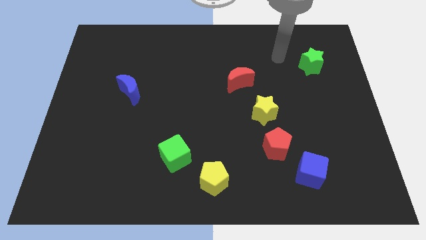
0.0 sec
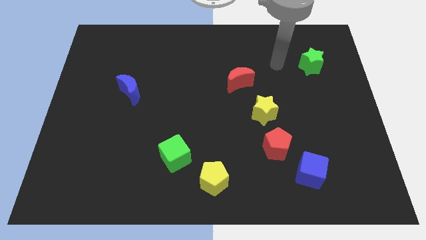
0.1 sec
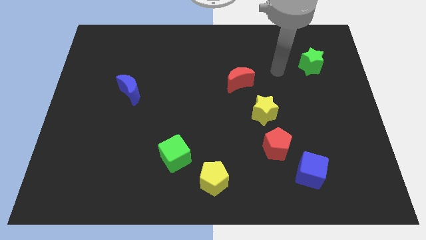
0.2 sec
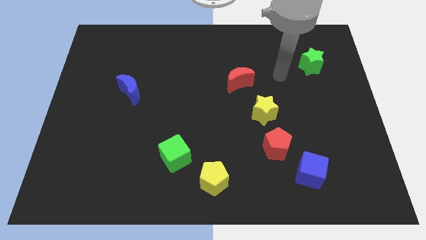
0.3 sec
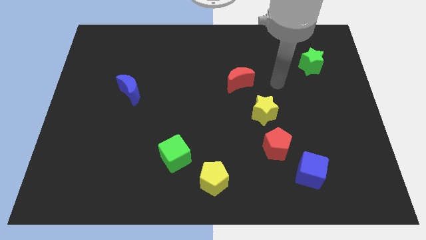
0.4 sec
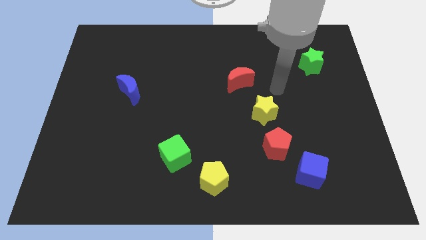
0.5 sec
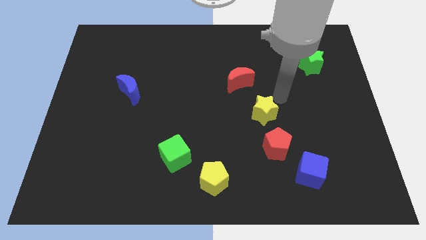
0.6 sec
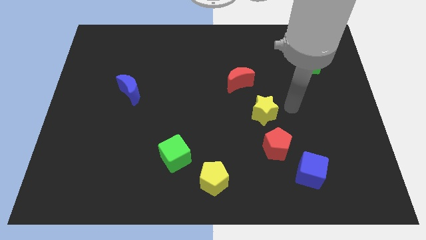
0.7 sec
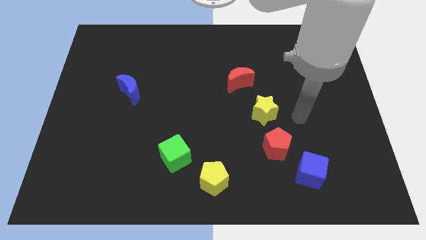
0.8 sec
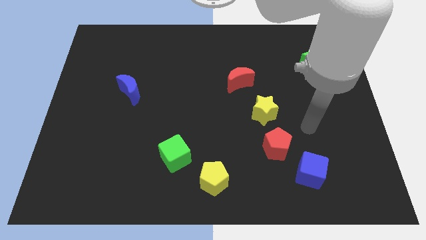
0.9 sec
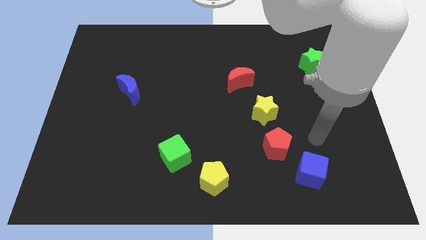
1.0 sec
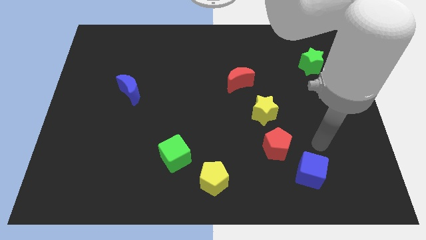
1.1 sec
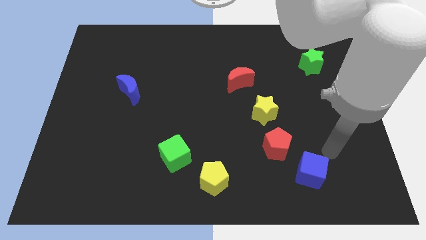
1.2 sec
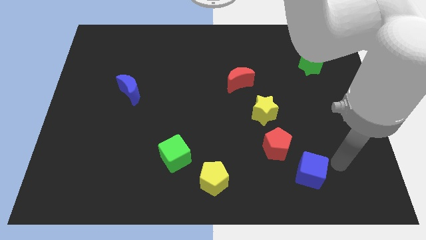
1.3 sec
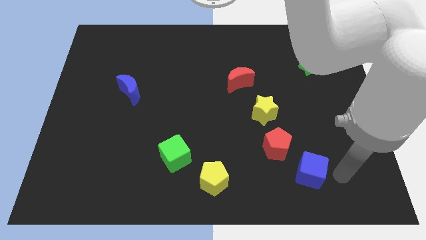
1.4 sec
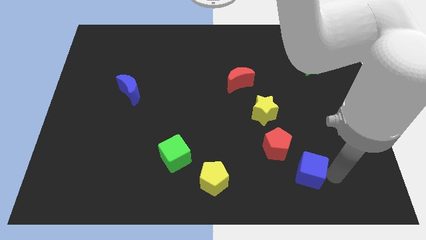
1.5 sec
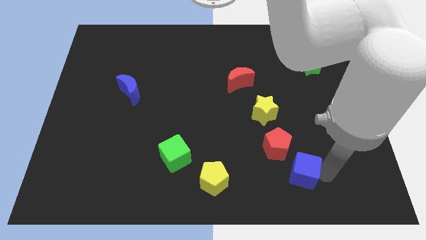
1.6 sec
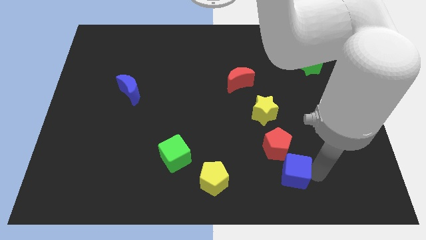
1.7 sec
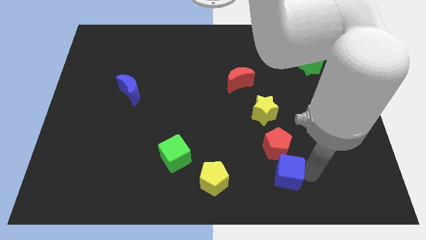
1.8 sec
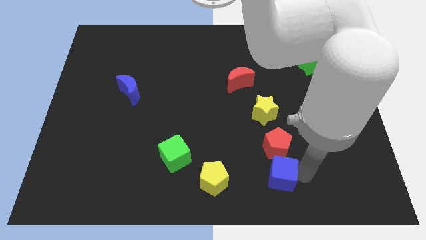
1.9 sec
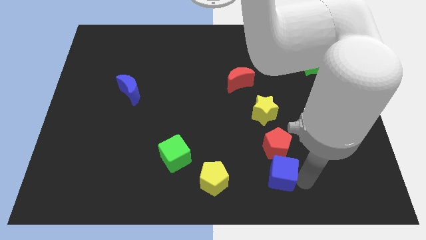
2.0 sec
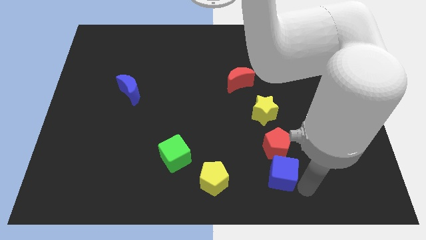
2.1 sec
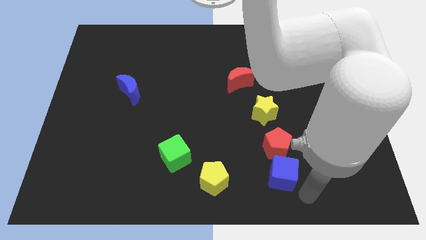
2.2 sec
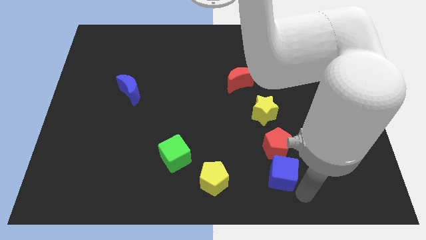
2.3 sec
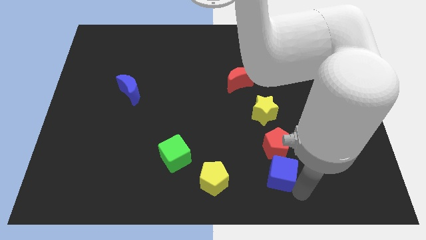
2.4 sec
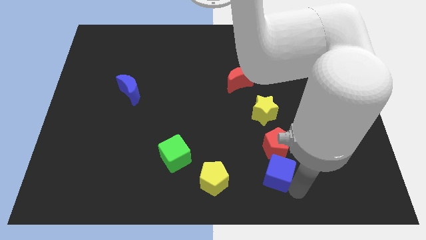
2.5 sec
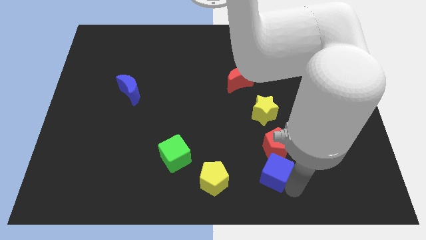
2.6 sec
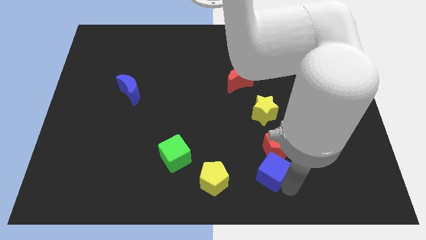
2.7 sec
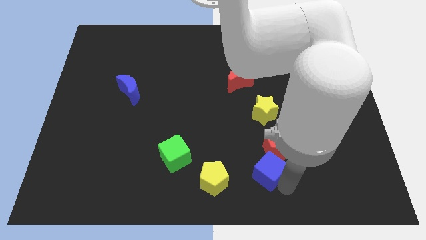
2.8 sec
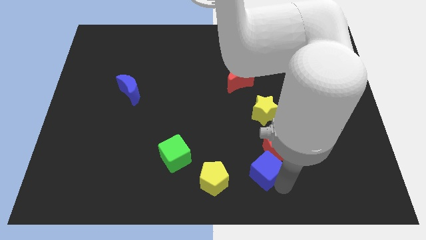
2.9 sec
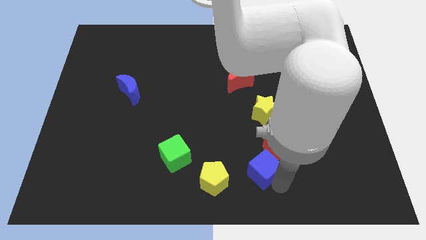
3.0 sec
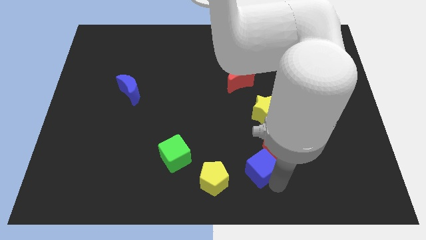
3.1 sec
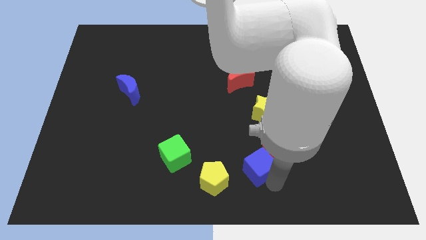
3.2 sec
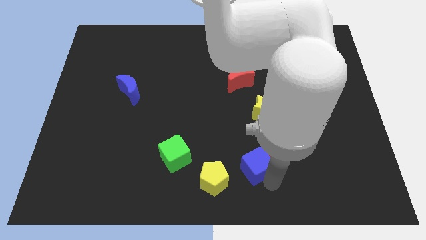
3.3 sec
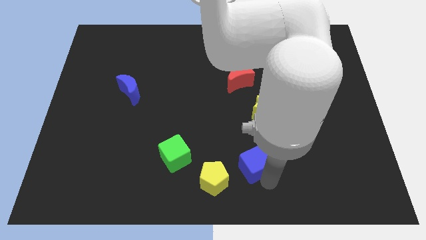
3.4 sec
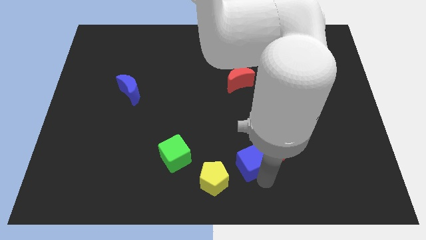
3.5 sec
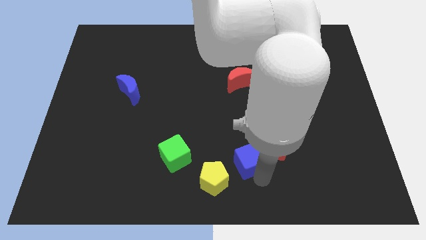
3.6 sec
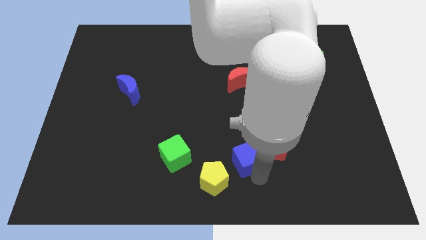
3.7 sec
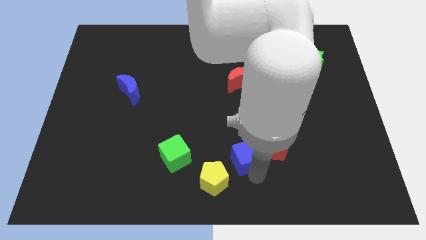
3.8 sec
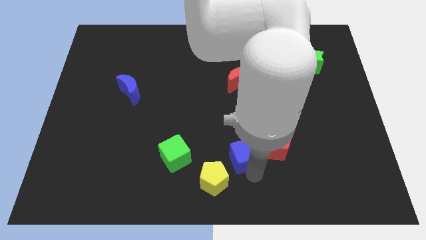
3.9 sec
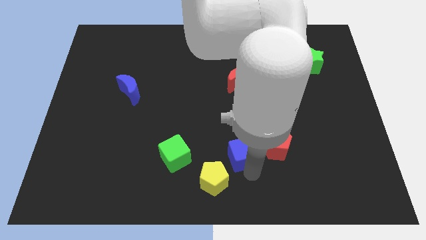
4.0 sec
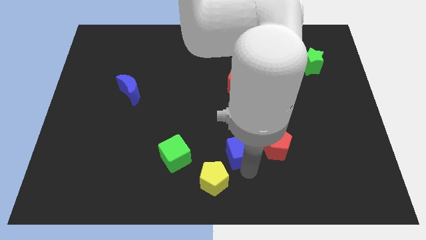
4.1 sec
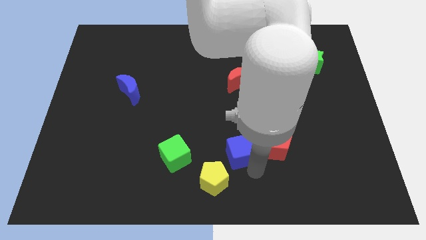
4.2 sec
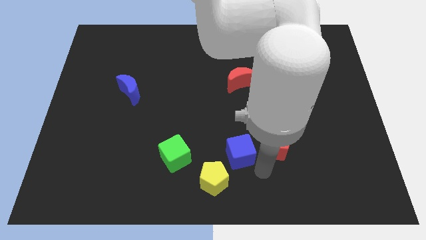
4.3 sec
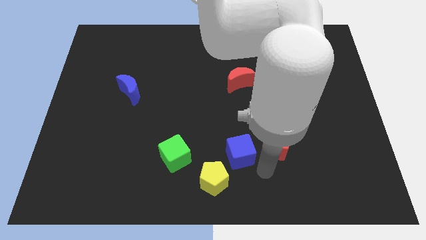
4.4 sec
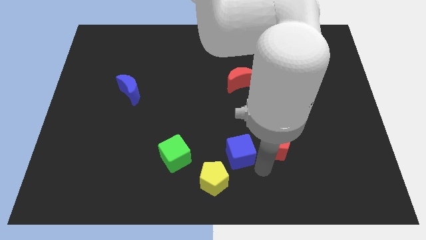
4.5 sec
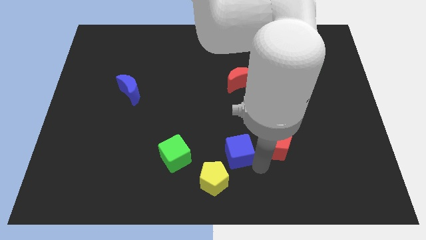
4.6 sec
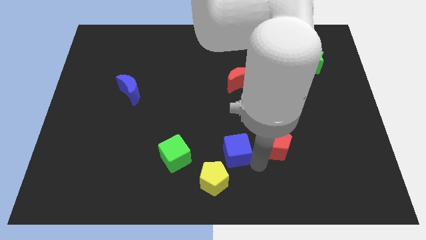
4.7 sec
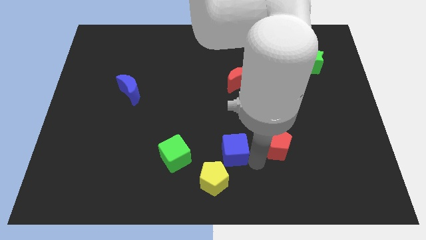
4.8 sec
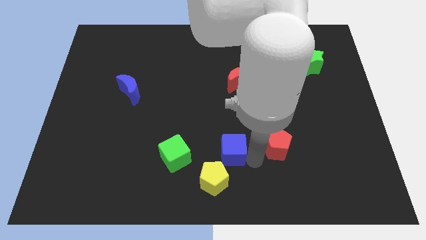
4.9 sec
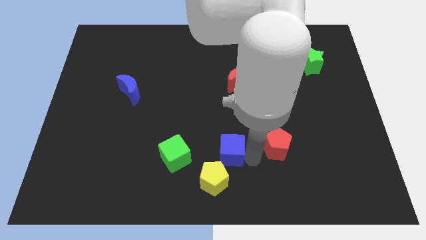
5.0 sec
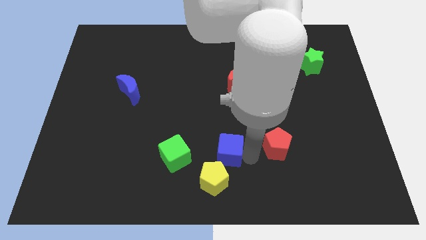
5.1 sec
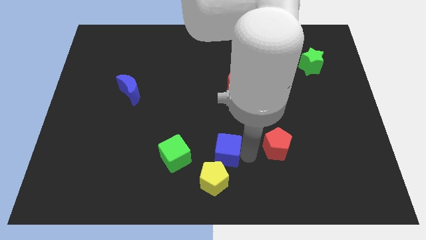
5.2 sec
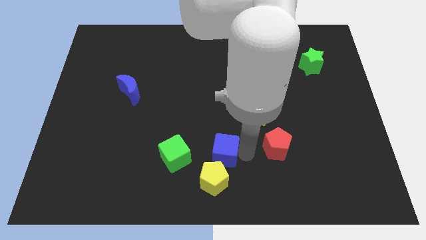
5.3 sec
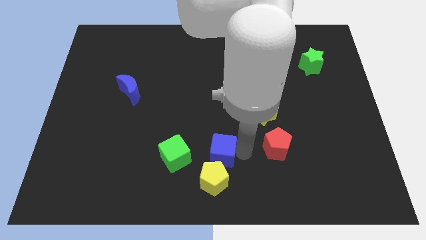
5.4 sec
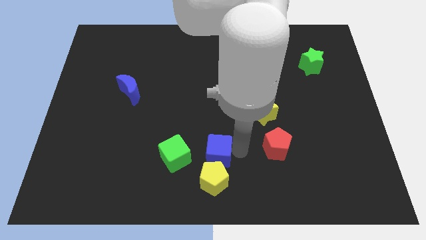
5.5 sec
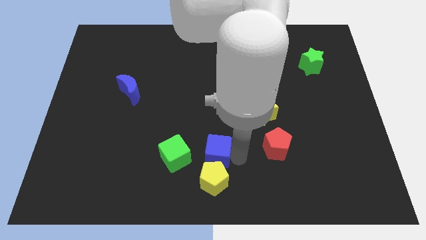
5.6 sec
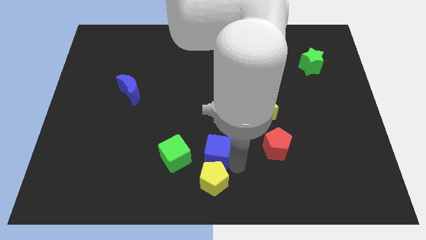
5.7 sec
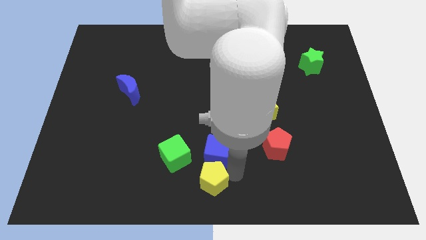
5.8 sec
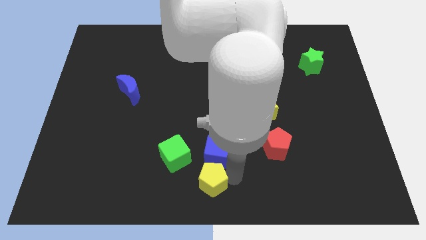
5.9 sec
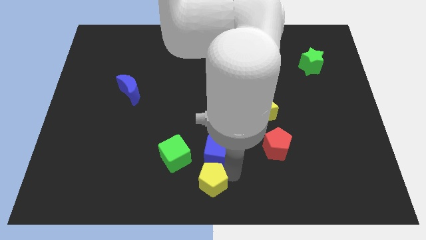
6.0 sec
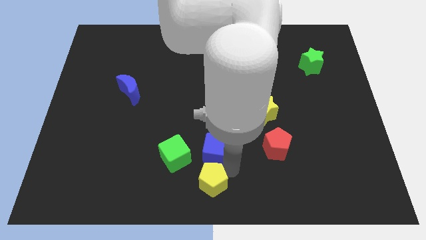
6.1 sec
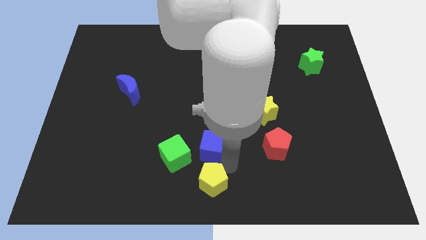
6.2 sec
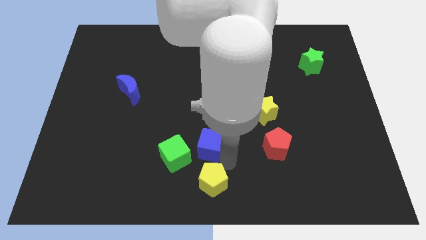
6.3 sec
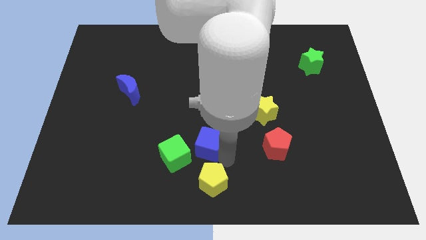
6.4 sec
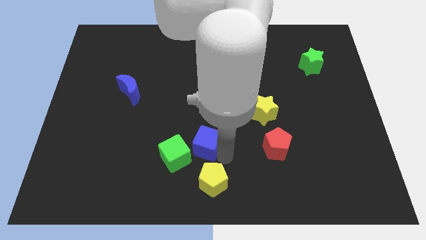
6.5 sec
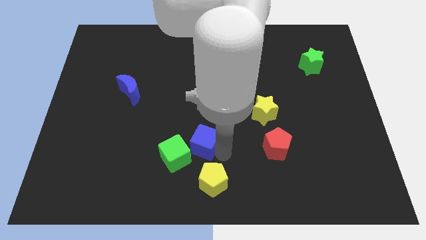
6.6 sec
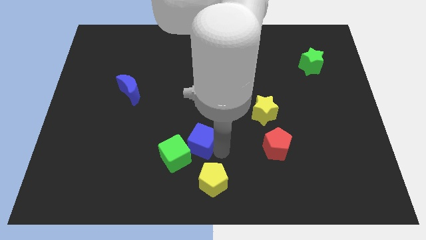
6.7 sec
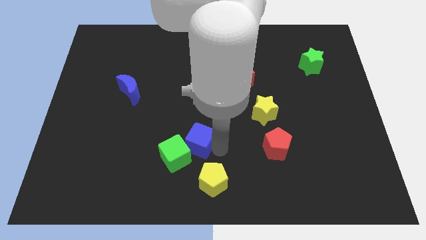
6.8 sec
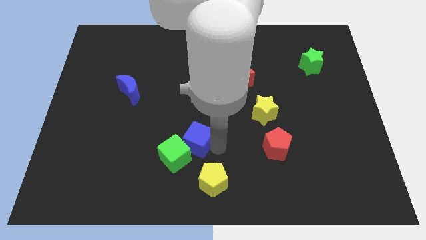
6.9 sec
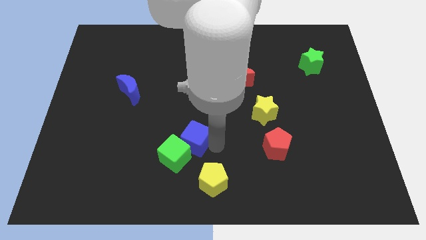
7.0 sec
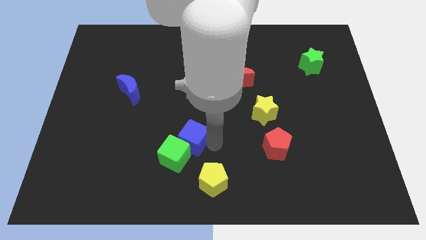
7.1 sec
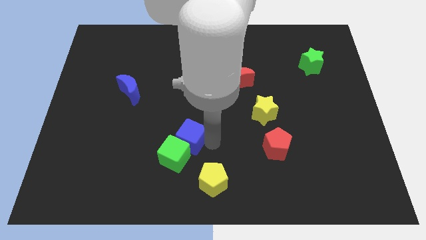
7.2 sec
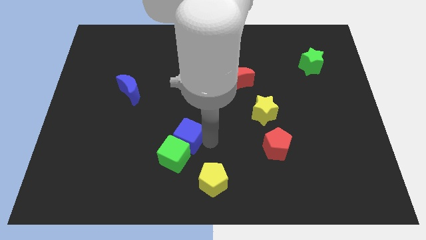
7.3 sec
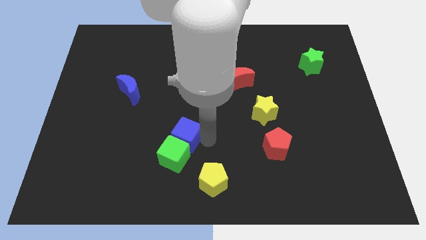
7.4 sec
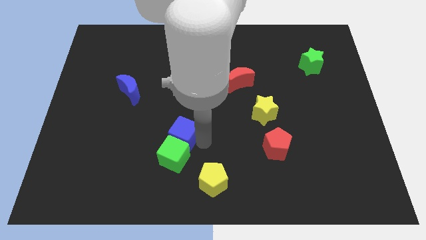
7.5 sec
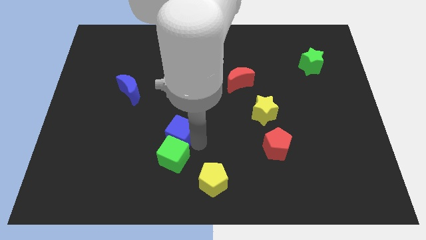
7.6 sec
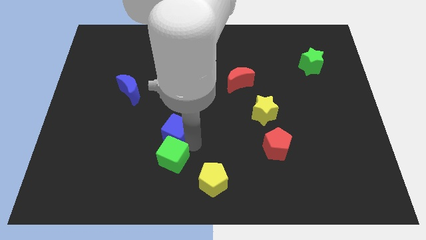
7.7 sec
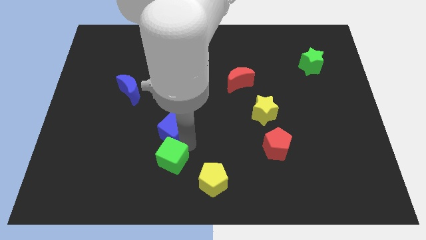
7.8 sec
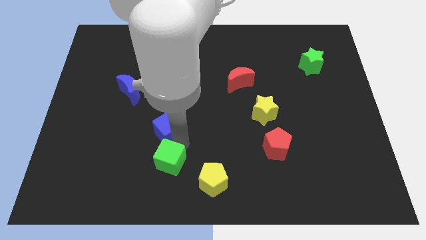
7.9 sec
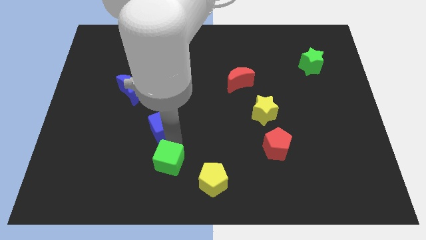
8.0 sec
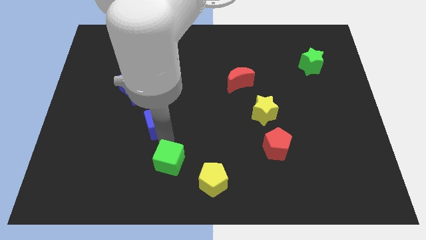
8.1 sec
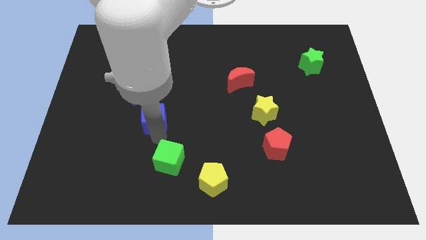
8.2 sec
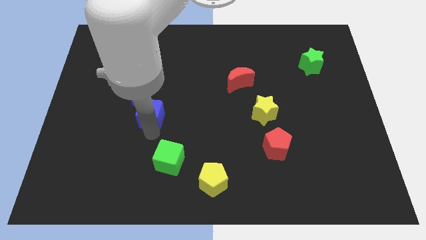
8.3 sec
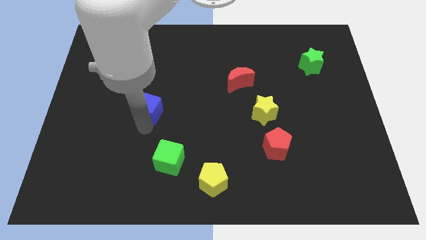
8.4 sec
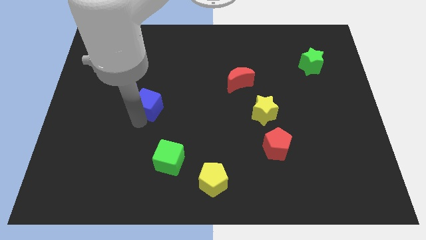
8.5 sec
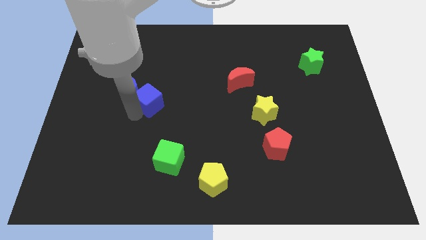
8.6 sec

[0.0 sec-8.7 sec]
slide the blue cube to the blue moon
